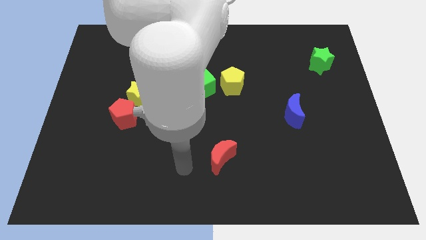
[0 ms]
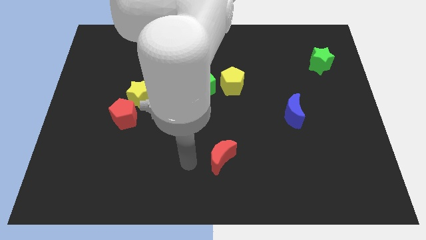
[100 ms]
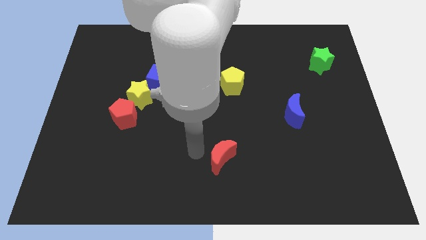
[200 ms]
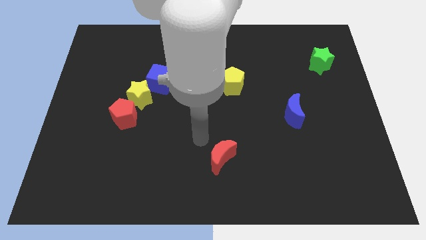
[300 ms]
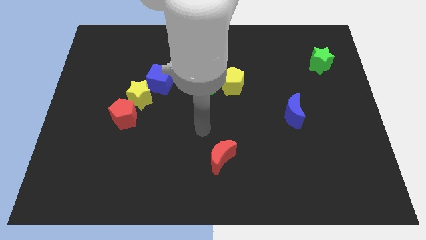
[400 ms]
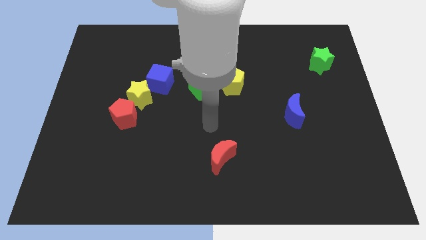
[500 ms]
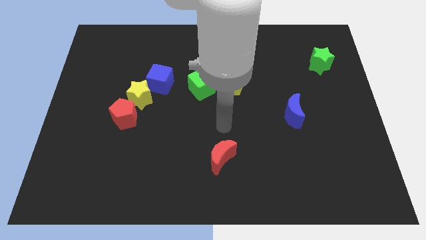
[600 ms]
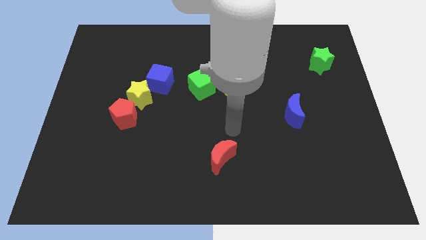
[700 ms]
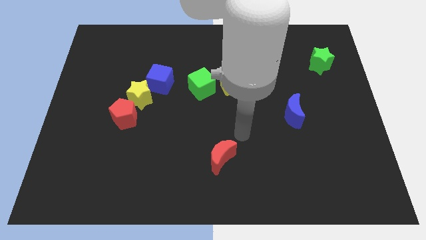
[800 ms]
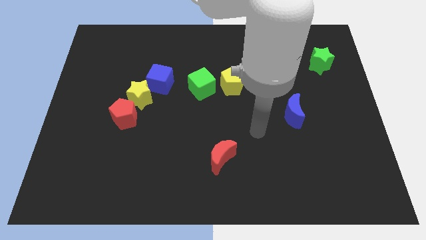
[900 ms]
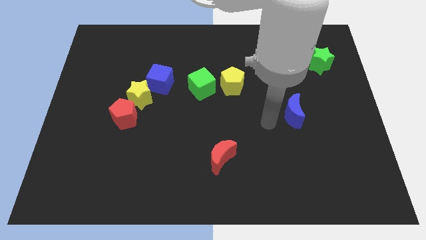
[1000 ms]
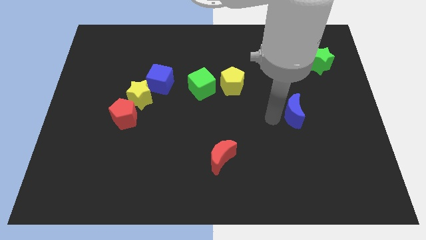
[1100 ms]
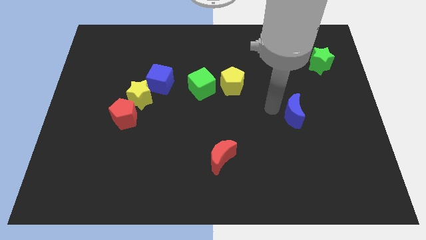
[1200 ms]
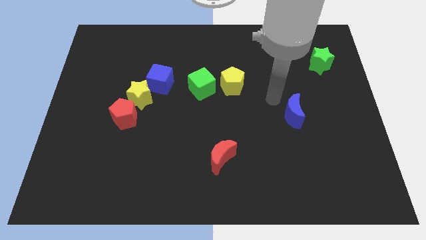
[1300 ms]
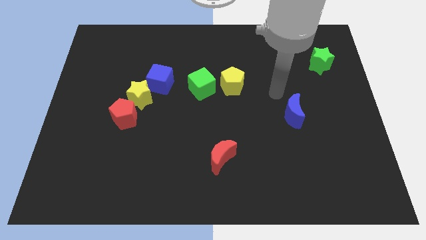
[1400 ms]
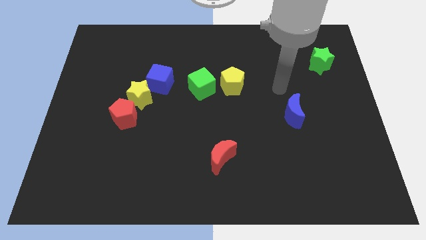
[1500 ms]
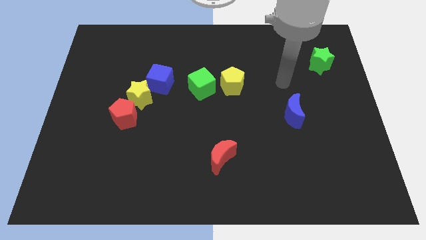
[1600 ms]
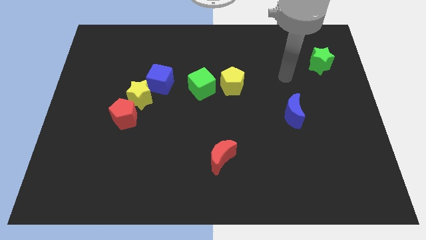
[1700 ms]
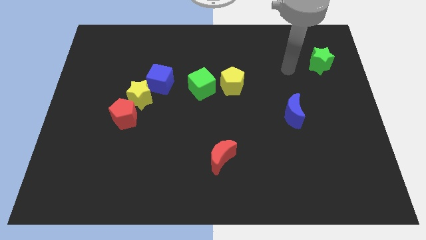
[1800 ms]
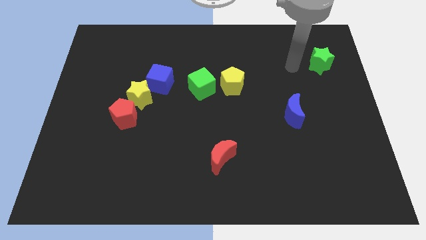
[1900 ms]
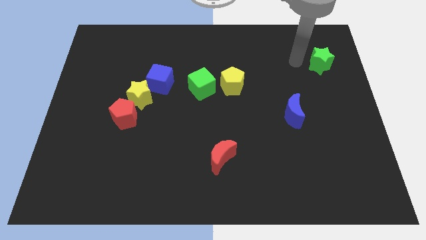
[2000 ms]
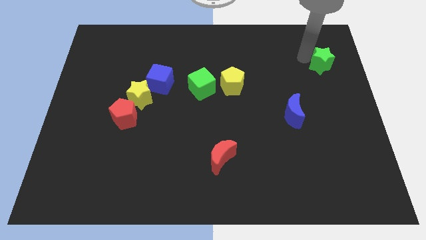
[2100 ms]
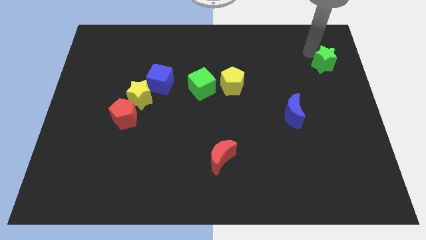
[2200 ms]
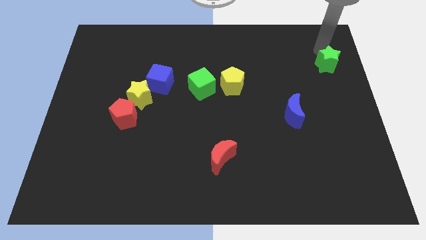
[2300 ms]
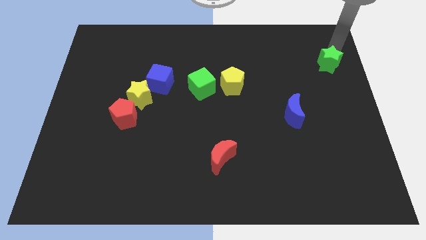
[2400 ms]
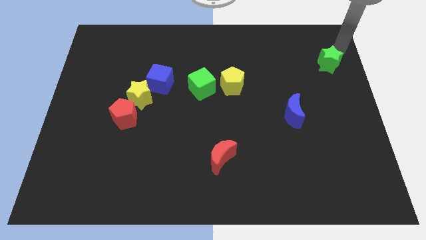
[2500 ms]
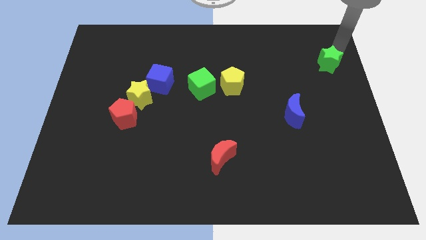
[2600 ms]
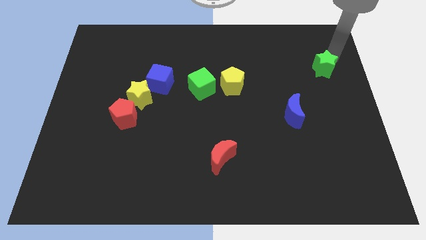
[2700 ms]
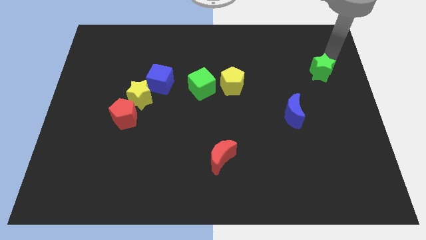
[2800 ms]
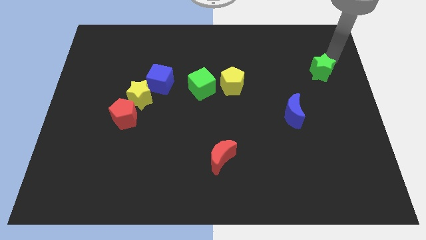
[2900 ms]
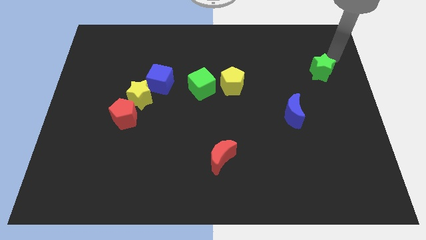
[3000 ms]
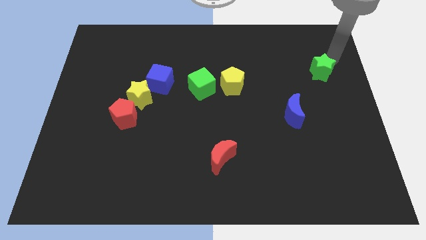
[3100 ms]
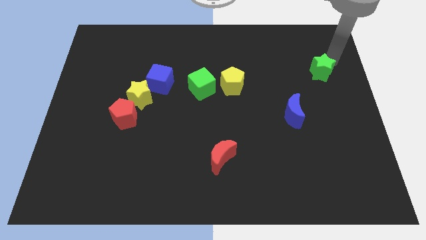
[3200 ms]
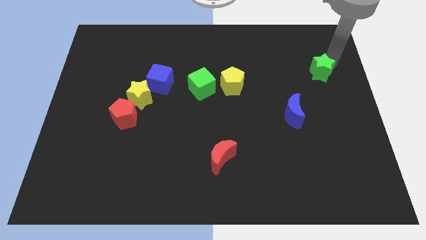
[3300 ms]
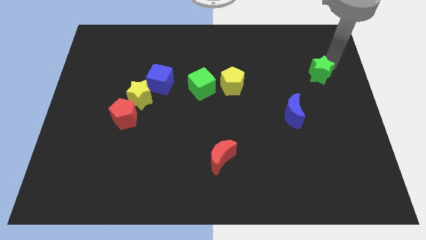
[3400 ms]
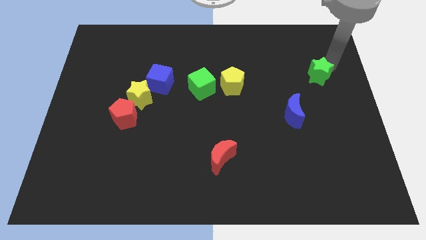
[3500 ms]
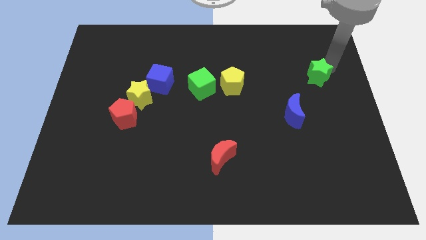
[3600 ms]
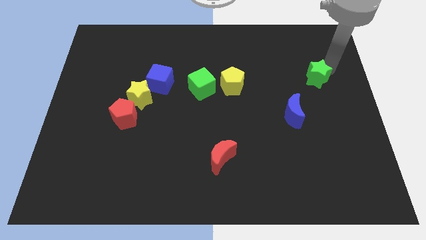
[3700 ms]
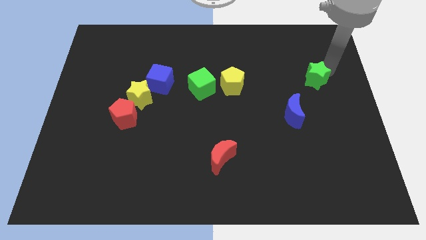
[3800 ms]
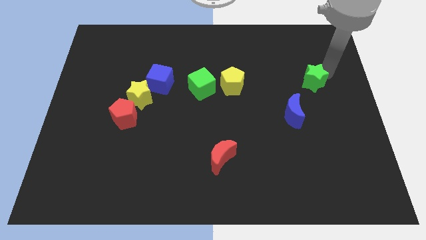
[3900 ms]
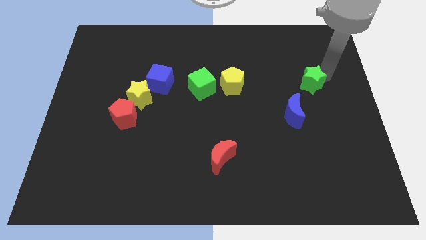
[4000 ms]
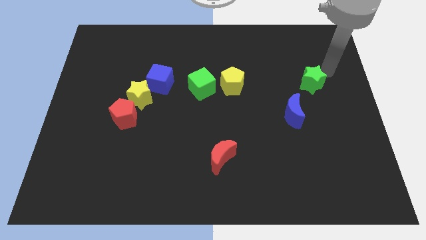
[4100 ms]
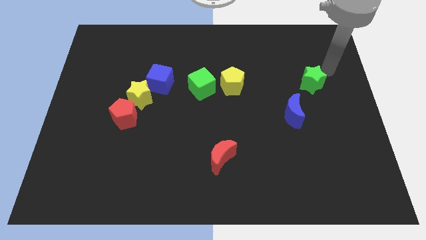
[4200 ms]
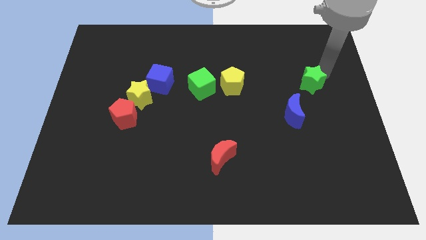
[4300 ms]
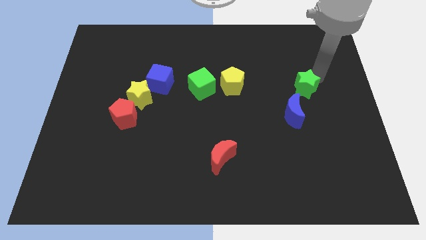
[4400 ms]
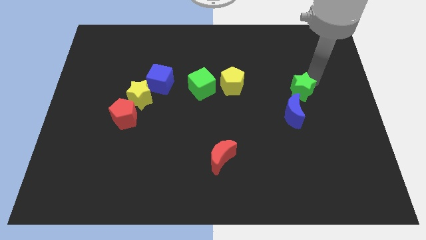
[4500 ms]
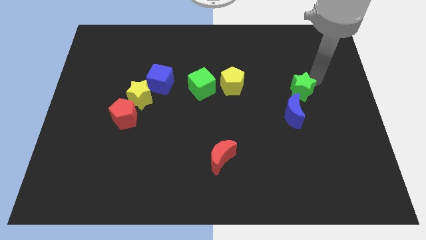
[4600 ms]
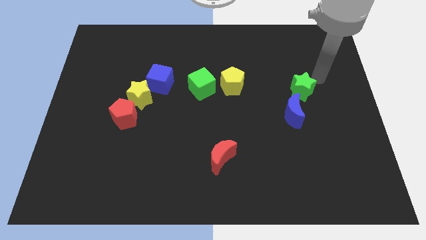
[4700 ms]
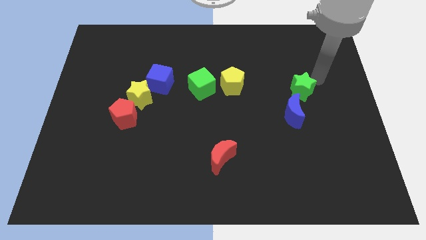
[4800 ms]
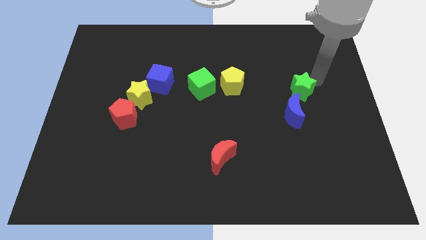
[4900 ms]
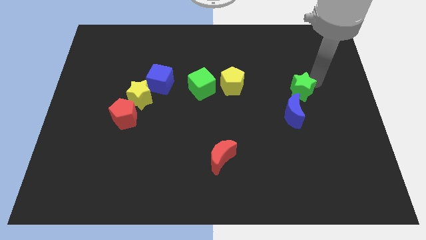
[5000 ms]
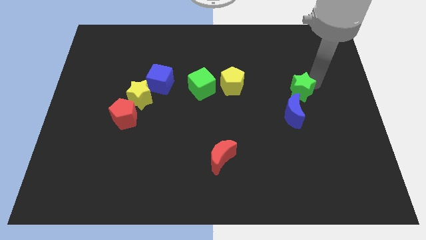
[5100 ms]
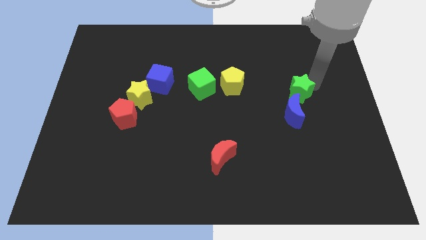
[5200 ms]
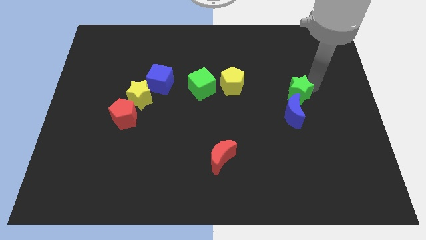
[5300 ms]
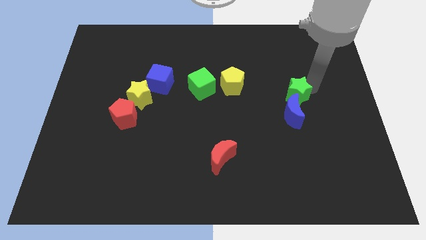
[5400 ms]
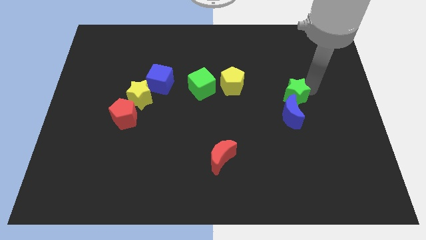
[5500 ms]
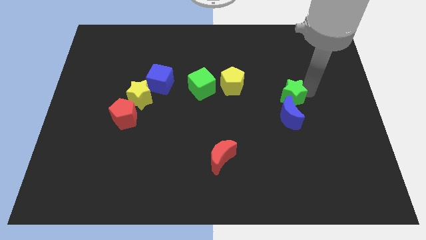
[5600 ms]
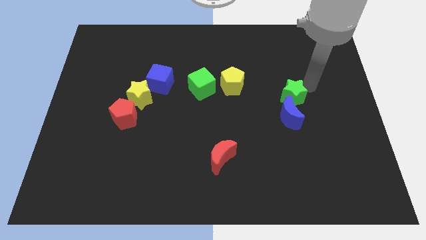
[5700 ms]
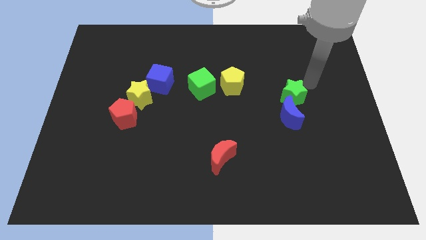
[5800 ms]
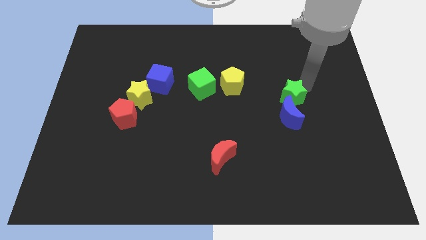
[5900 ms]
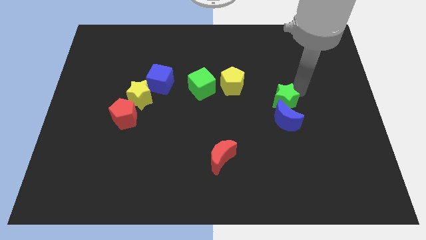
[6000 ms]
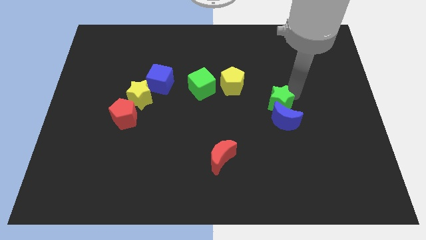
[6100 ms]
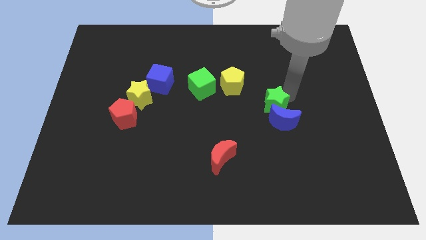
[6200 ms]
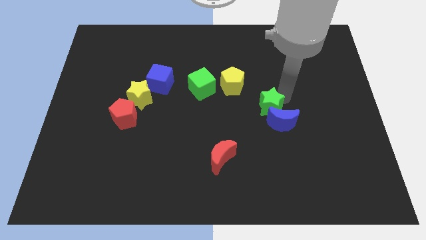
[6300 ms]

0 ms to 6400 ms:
slide the green star diagonally downwards and left

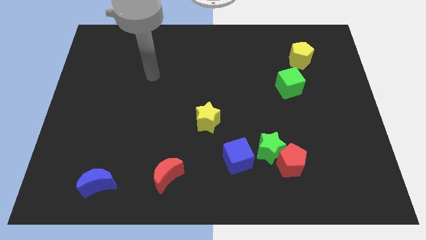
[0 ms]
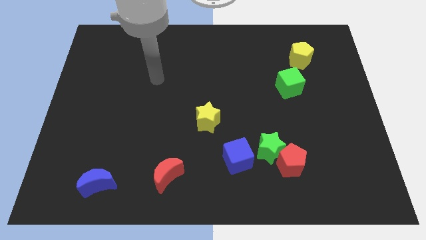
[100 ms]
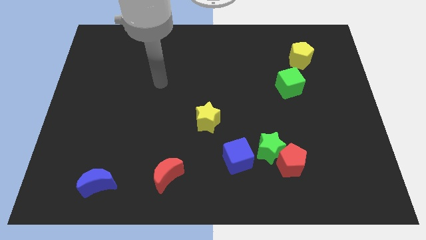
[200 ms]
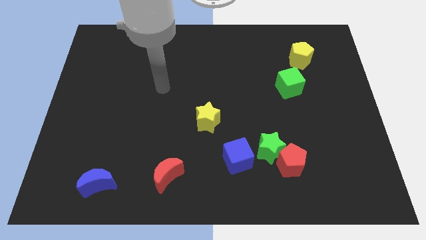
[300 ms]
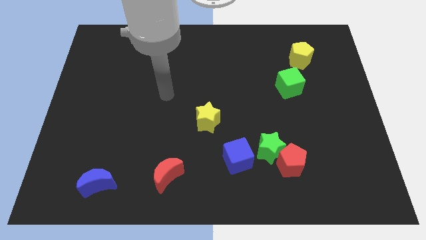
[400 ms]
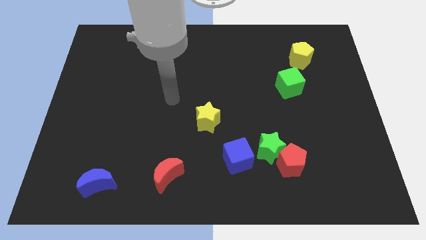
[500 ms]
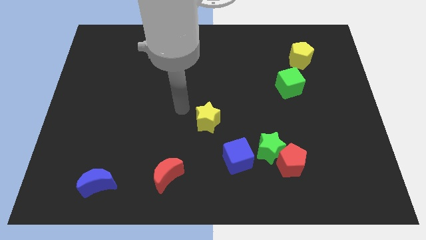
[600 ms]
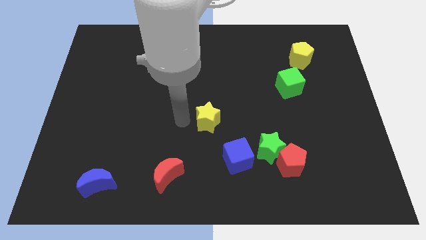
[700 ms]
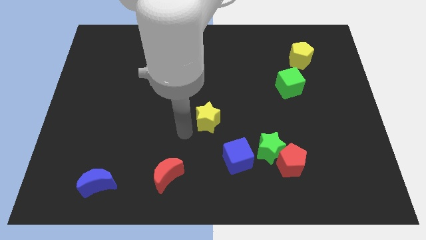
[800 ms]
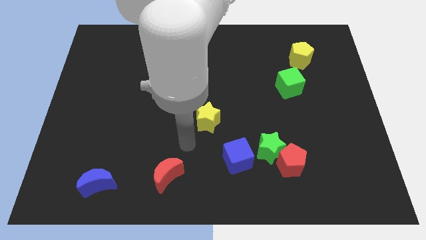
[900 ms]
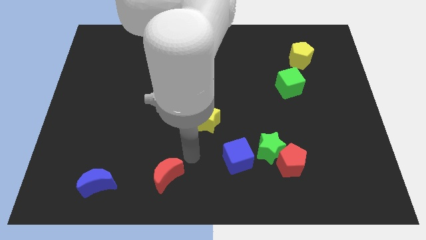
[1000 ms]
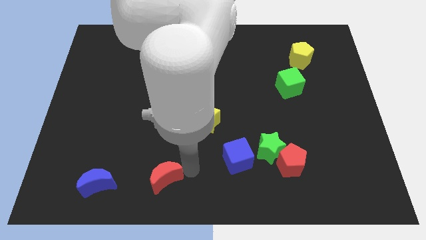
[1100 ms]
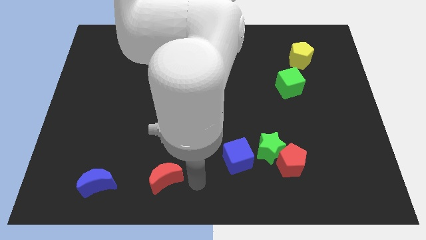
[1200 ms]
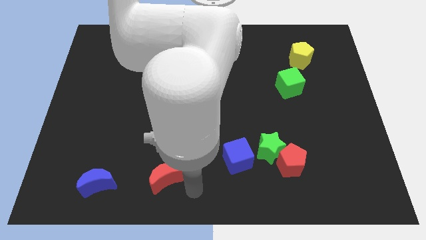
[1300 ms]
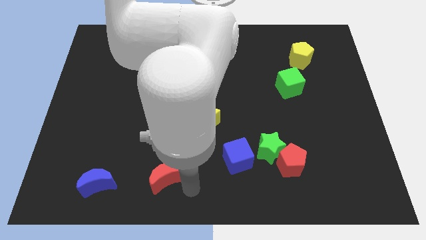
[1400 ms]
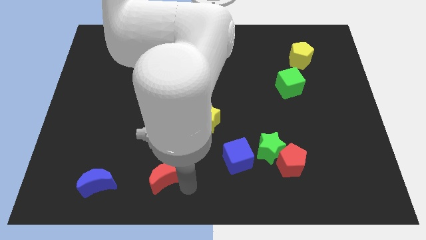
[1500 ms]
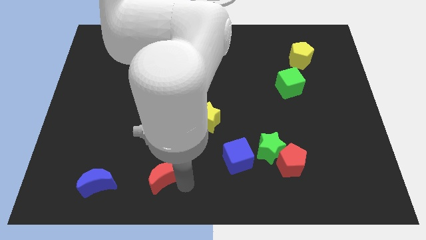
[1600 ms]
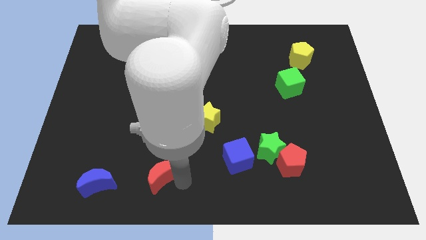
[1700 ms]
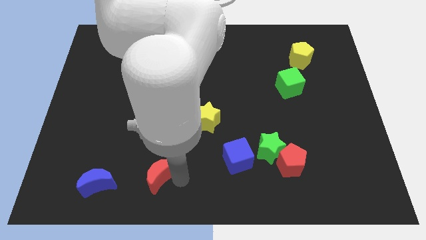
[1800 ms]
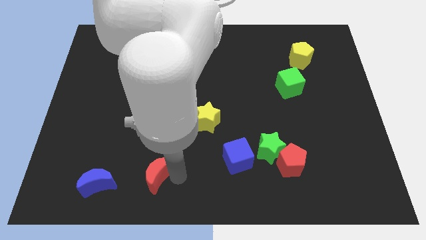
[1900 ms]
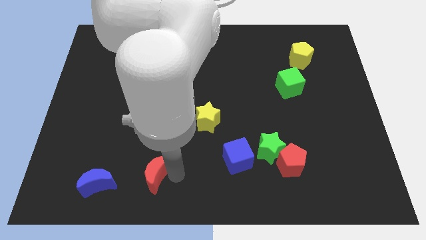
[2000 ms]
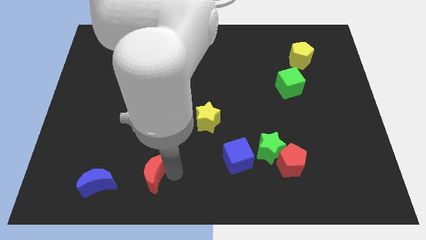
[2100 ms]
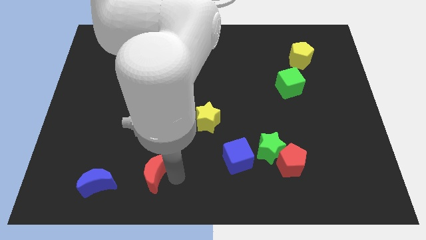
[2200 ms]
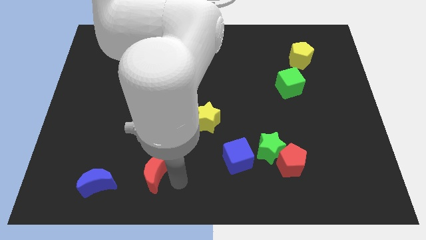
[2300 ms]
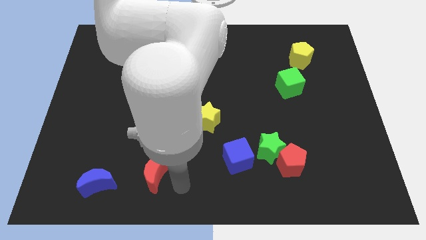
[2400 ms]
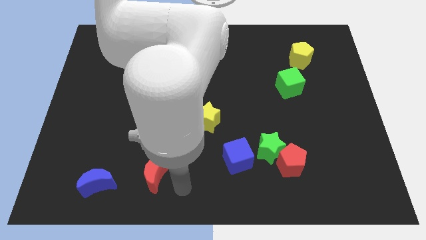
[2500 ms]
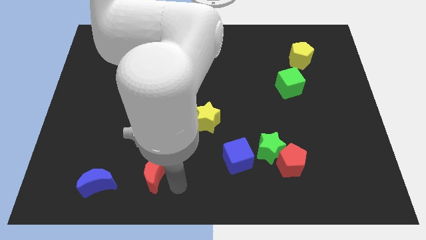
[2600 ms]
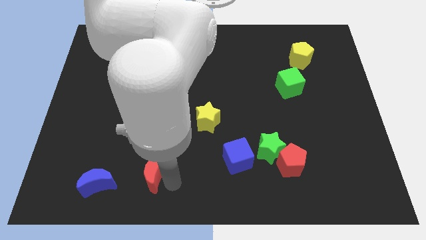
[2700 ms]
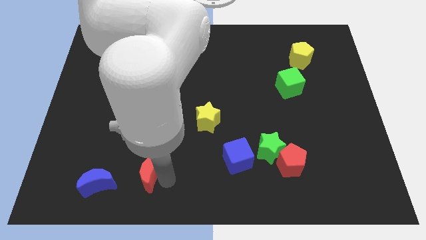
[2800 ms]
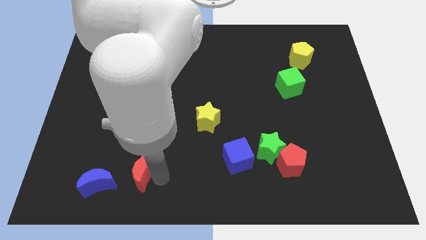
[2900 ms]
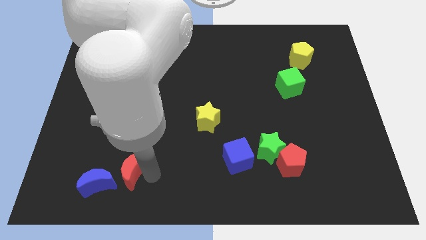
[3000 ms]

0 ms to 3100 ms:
slightly move the red moon to the left
